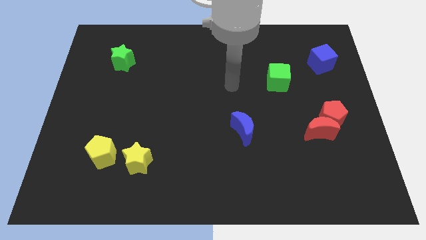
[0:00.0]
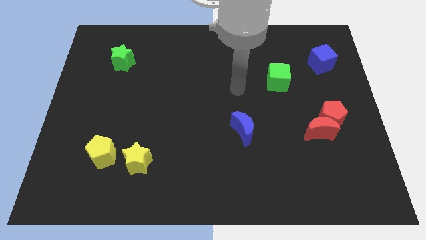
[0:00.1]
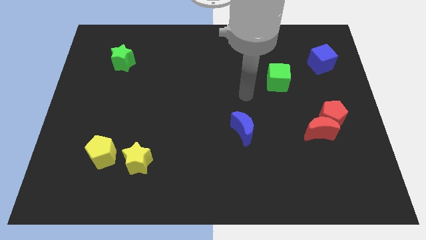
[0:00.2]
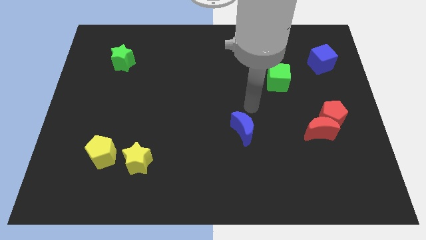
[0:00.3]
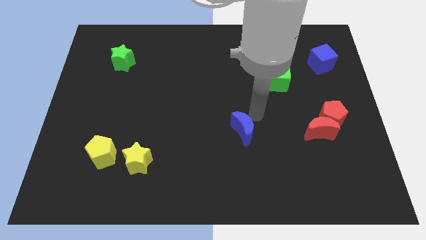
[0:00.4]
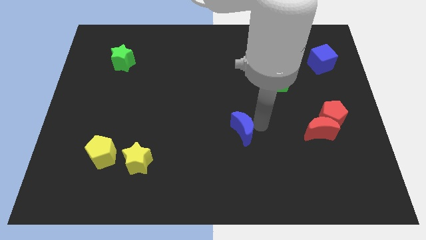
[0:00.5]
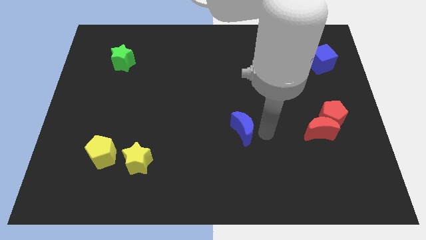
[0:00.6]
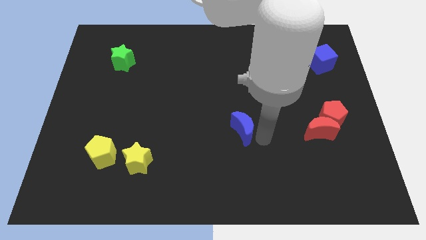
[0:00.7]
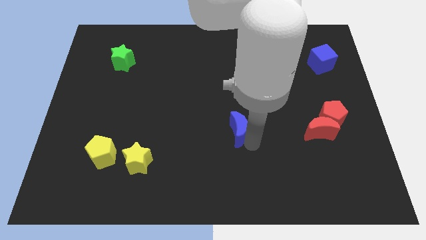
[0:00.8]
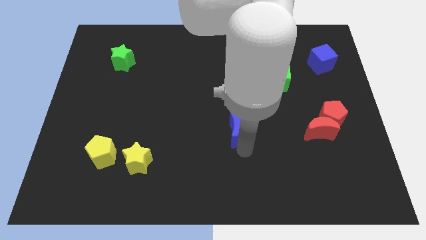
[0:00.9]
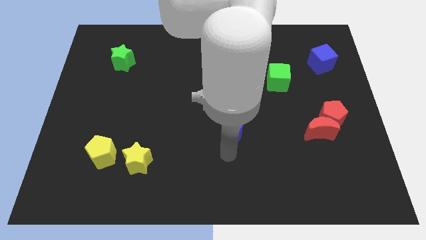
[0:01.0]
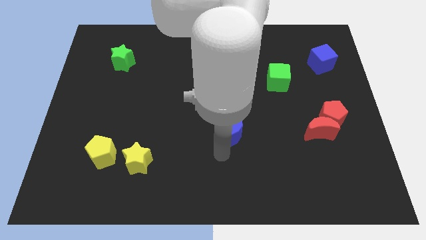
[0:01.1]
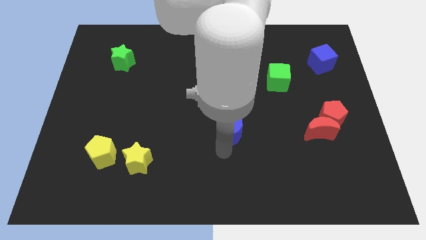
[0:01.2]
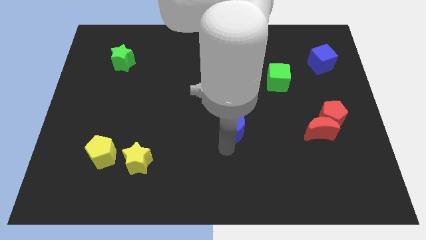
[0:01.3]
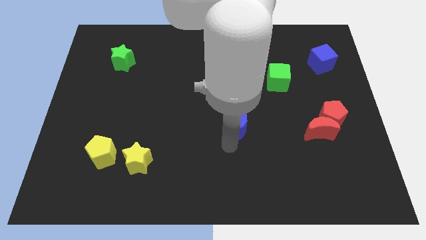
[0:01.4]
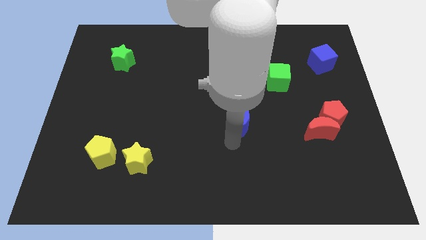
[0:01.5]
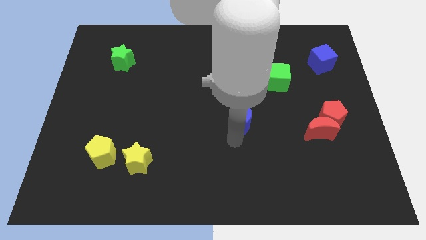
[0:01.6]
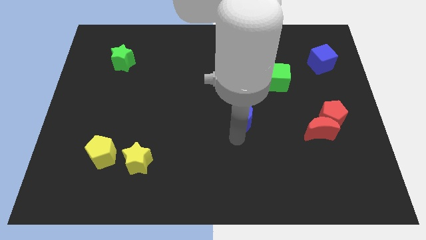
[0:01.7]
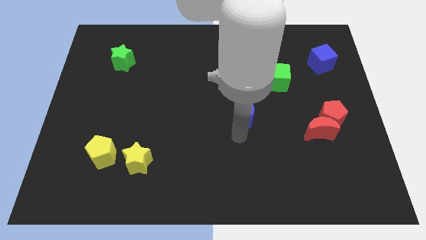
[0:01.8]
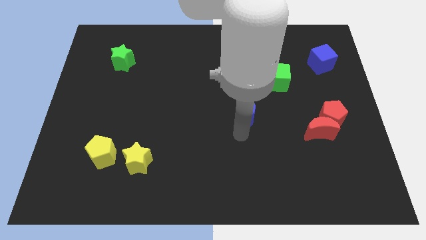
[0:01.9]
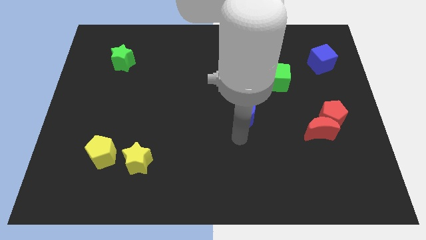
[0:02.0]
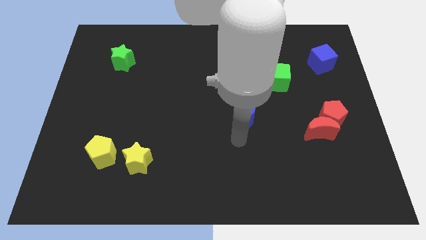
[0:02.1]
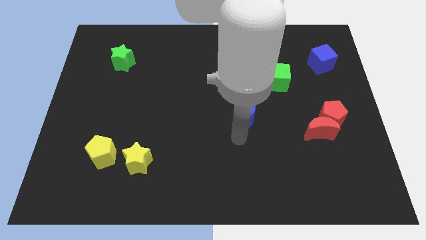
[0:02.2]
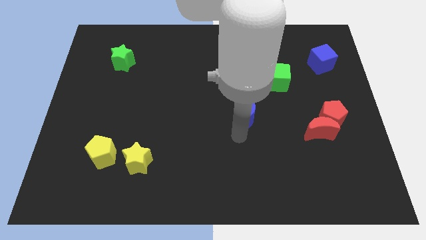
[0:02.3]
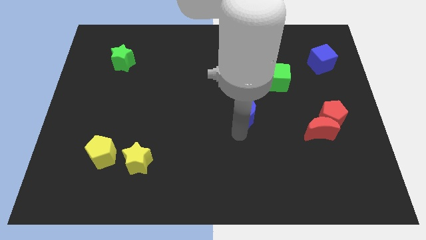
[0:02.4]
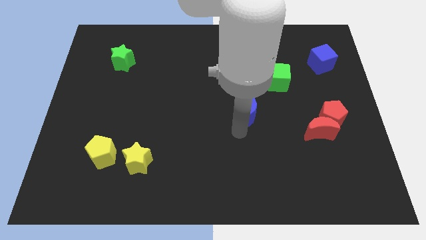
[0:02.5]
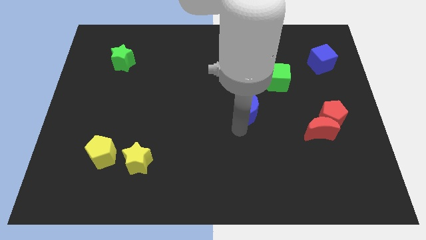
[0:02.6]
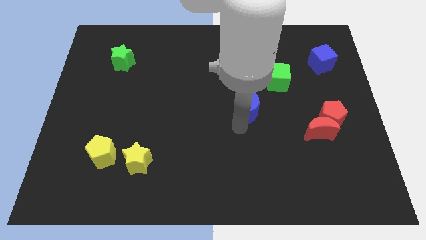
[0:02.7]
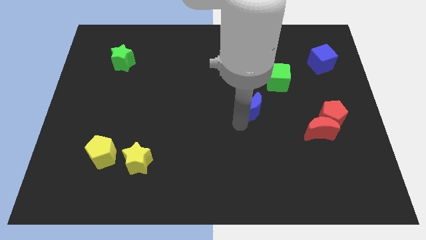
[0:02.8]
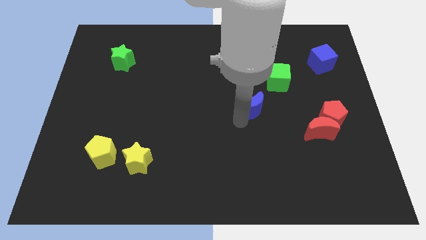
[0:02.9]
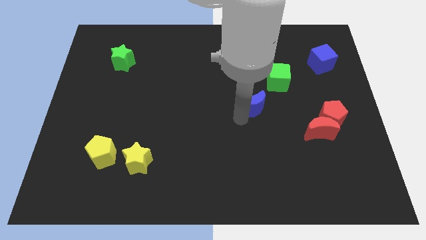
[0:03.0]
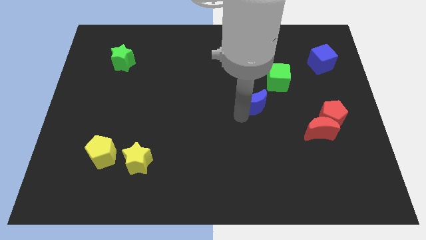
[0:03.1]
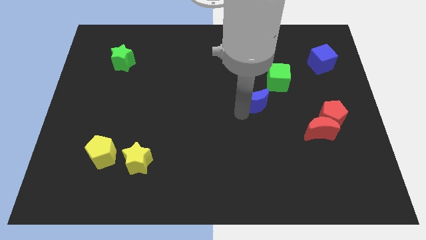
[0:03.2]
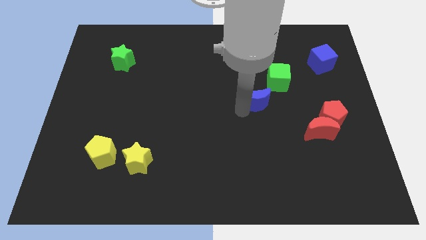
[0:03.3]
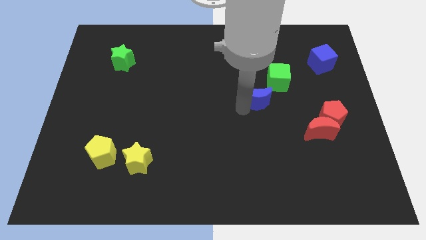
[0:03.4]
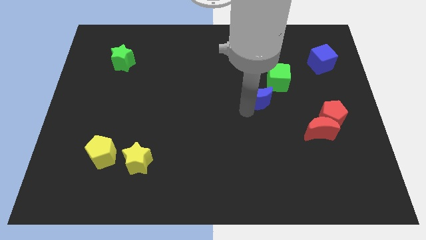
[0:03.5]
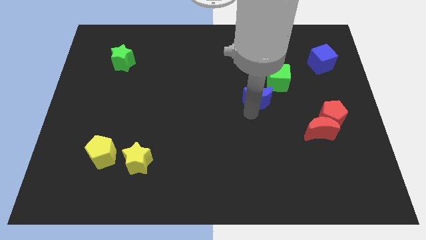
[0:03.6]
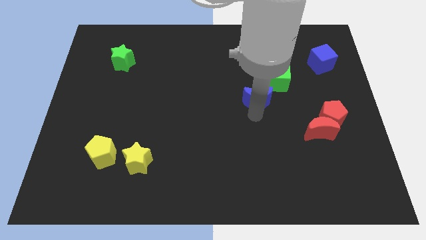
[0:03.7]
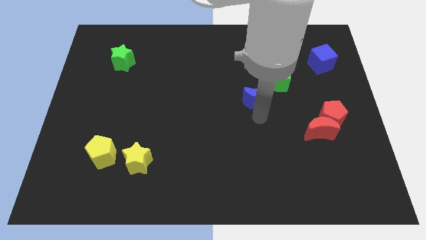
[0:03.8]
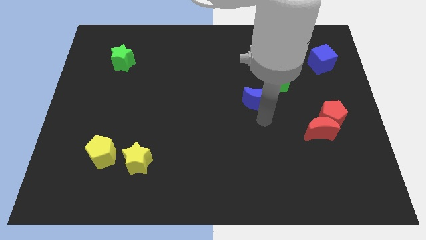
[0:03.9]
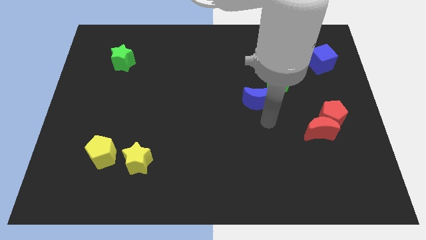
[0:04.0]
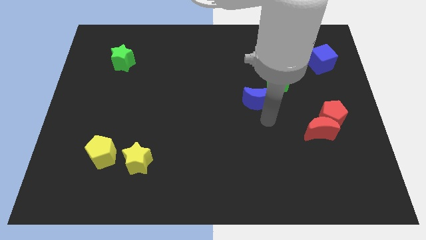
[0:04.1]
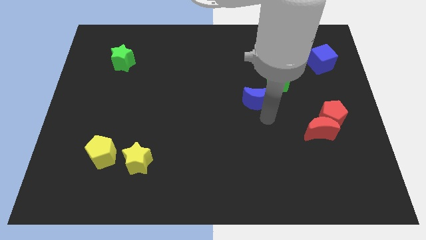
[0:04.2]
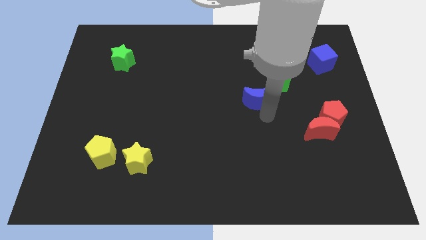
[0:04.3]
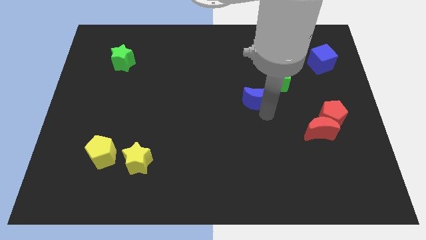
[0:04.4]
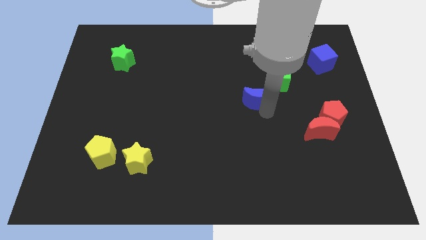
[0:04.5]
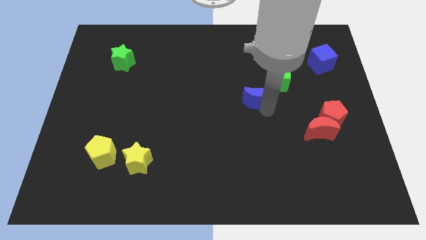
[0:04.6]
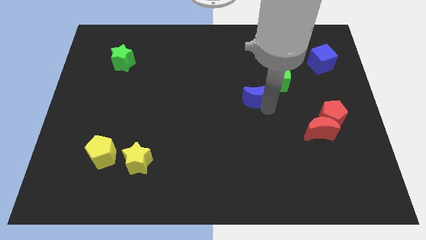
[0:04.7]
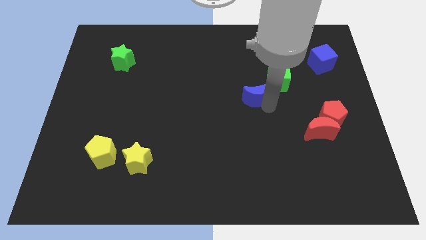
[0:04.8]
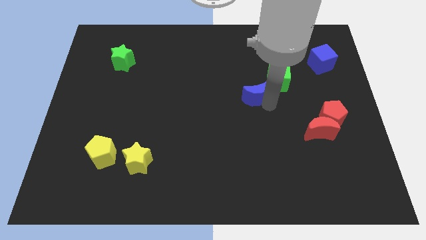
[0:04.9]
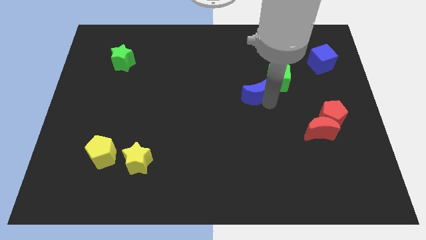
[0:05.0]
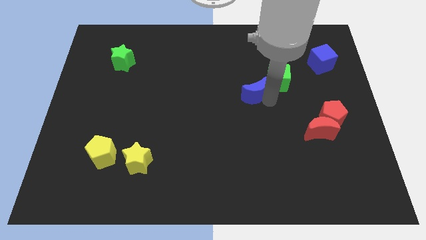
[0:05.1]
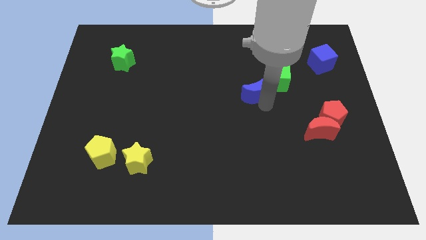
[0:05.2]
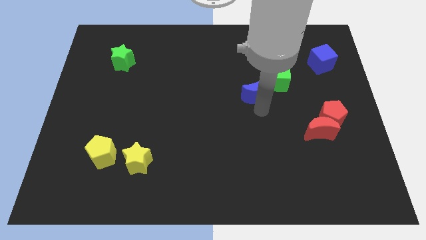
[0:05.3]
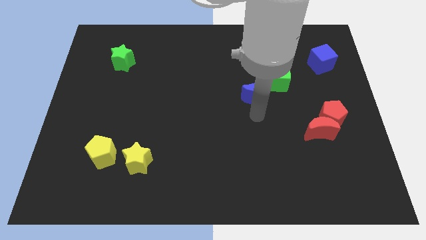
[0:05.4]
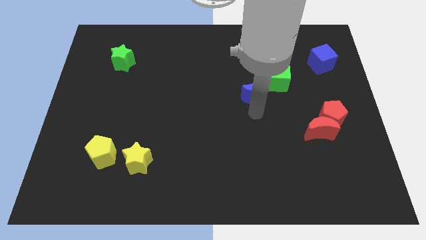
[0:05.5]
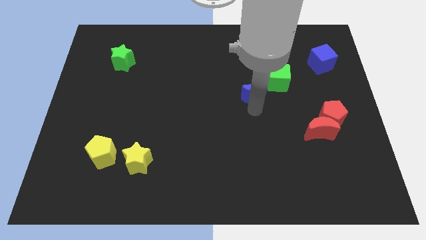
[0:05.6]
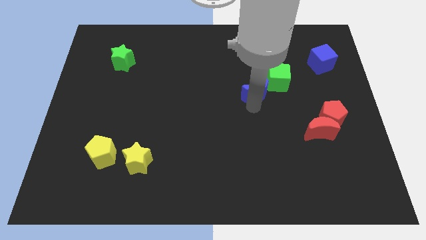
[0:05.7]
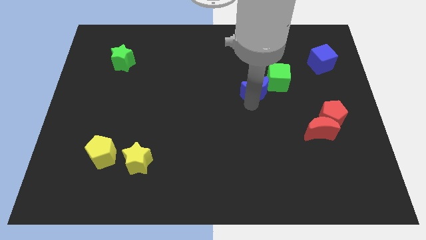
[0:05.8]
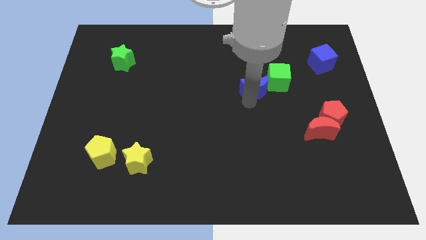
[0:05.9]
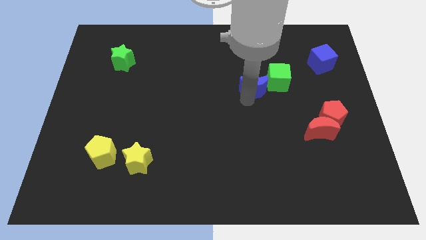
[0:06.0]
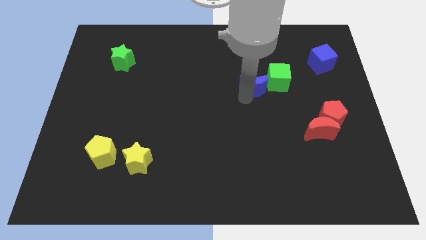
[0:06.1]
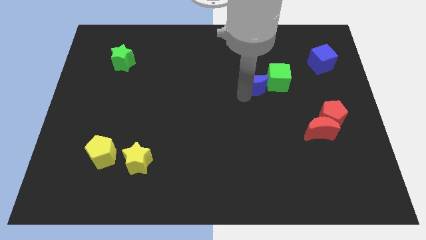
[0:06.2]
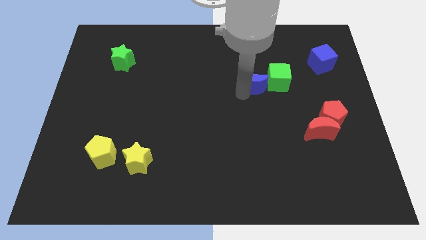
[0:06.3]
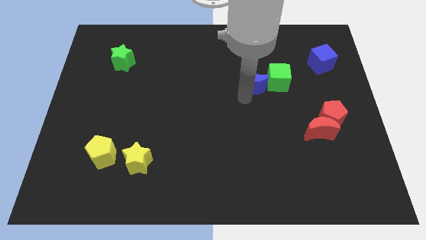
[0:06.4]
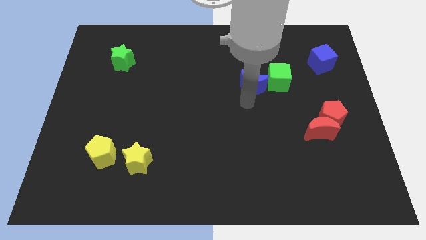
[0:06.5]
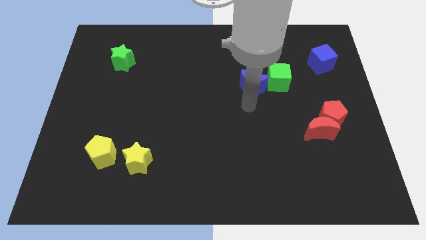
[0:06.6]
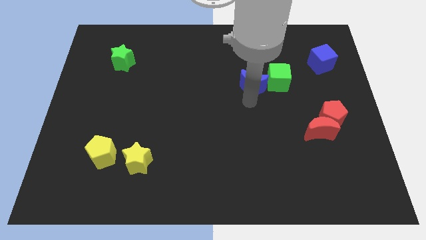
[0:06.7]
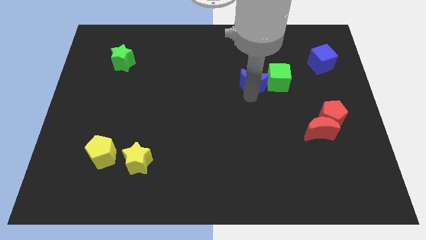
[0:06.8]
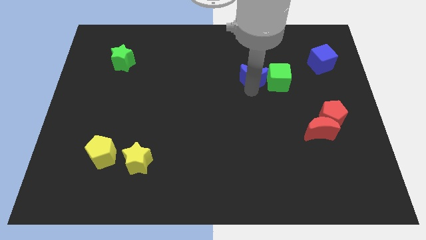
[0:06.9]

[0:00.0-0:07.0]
put the blue moon diagonally up and to the left of the green cube
